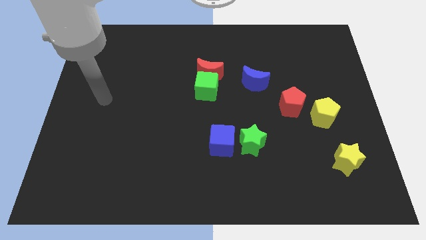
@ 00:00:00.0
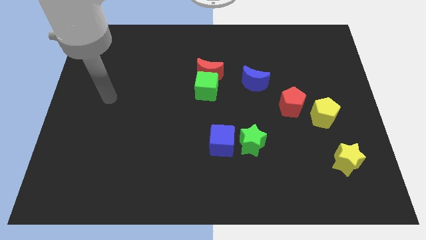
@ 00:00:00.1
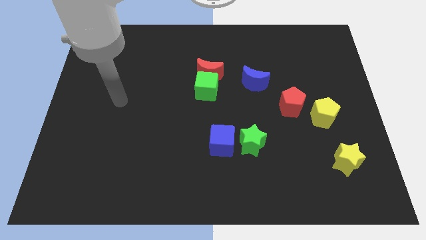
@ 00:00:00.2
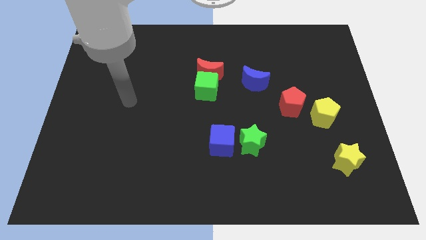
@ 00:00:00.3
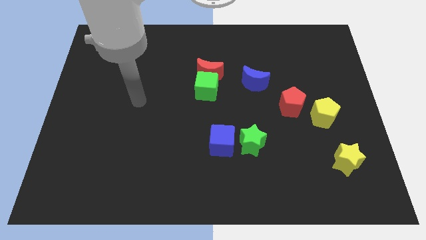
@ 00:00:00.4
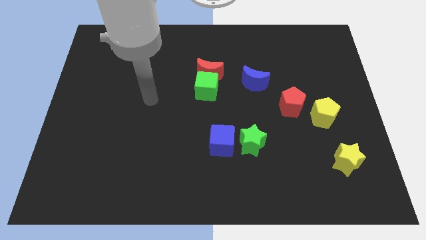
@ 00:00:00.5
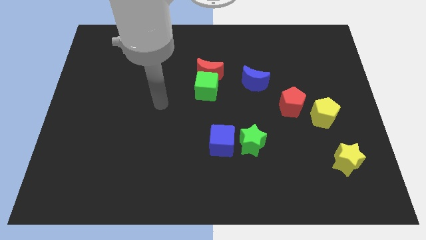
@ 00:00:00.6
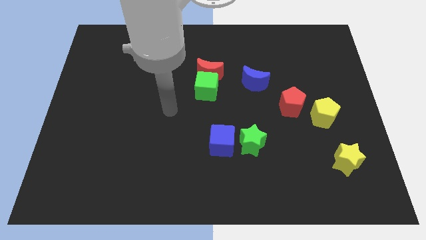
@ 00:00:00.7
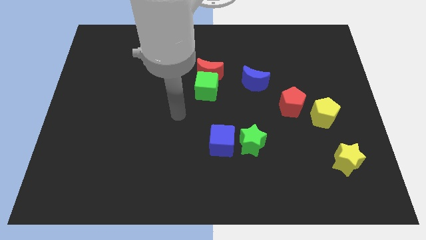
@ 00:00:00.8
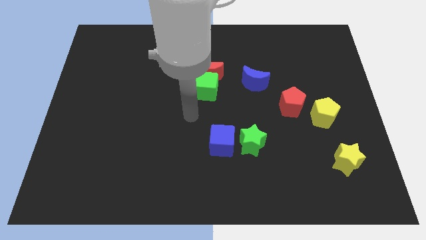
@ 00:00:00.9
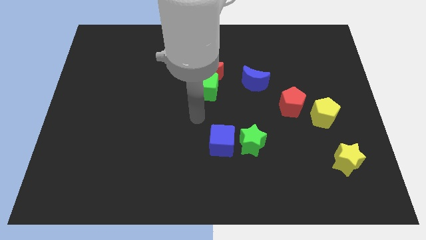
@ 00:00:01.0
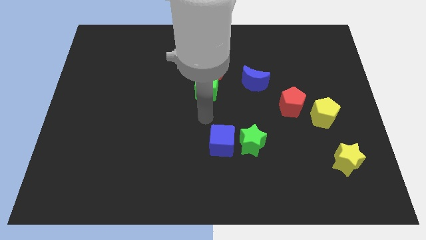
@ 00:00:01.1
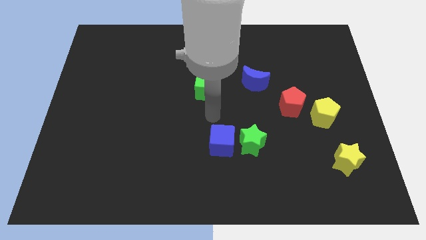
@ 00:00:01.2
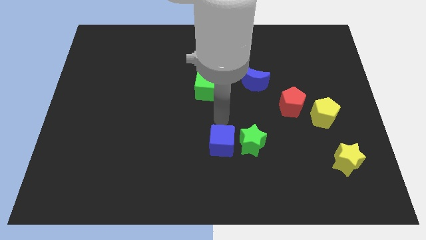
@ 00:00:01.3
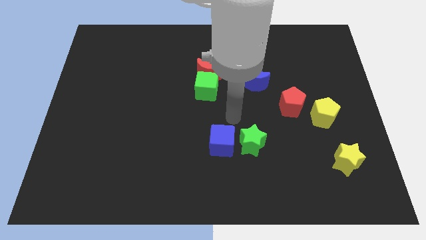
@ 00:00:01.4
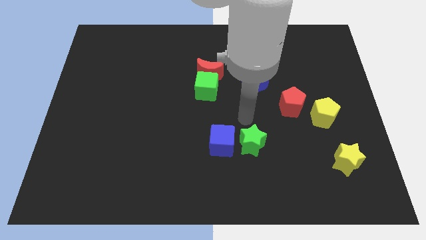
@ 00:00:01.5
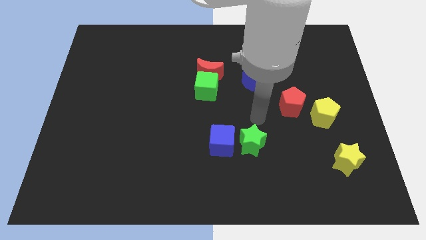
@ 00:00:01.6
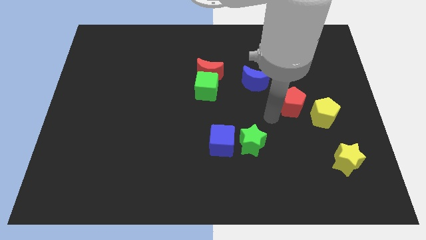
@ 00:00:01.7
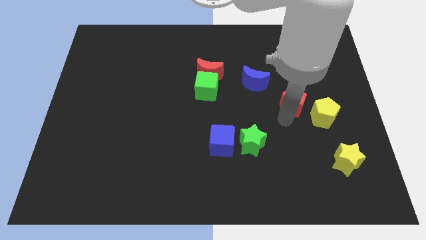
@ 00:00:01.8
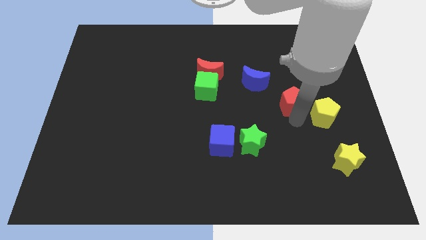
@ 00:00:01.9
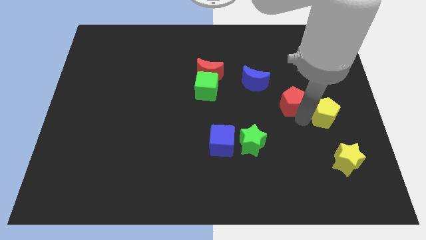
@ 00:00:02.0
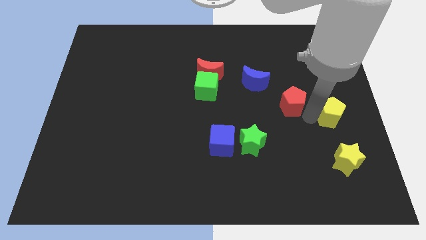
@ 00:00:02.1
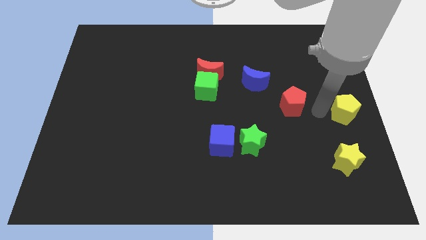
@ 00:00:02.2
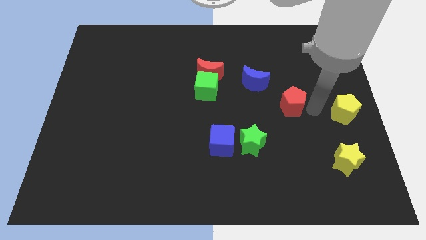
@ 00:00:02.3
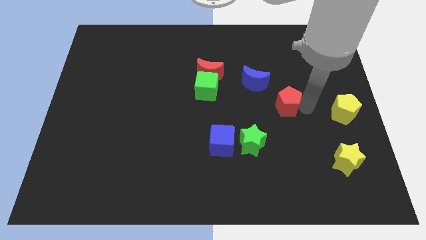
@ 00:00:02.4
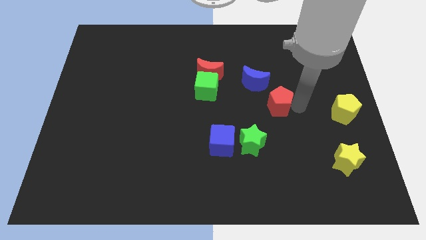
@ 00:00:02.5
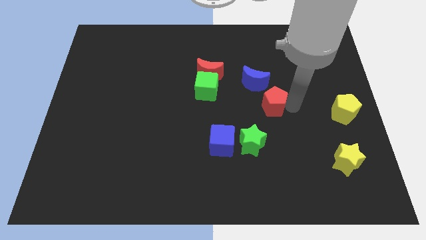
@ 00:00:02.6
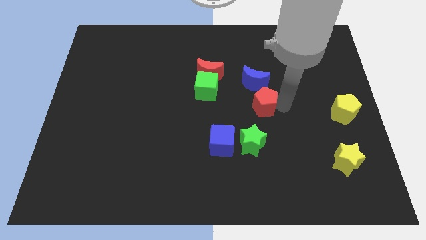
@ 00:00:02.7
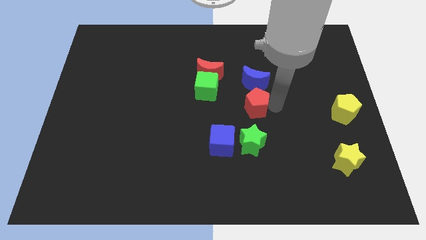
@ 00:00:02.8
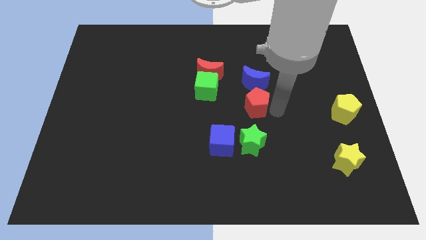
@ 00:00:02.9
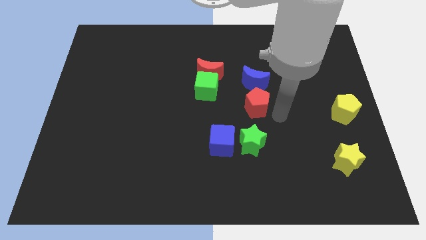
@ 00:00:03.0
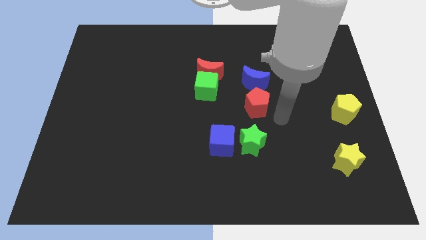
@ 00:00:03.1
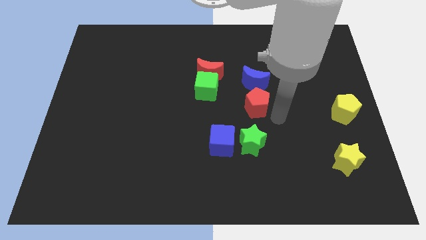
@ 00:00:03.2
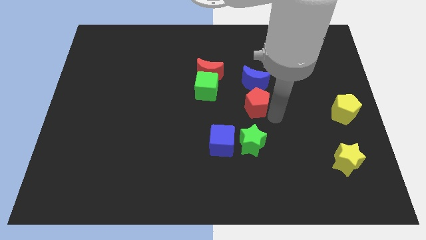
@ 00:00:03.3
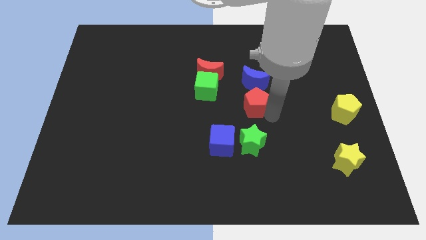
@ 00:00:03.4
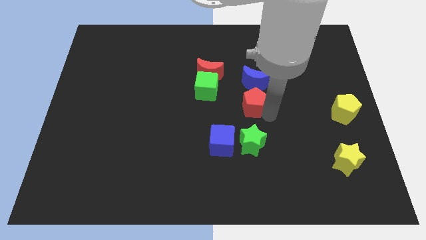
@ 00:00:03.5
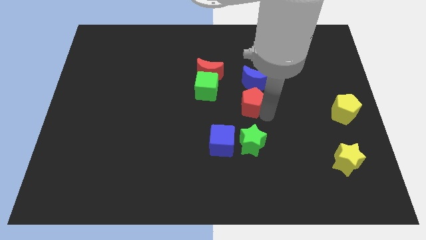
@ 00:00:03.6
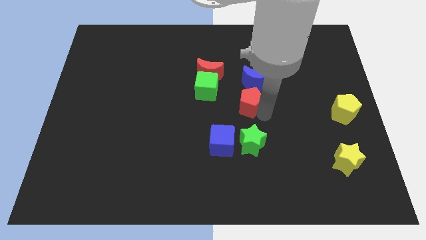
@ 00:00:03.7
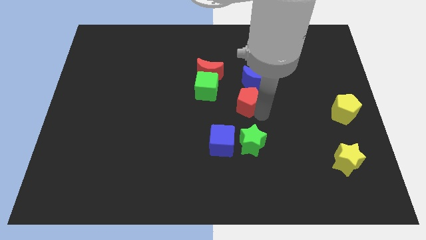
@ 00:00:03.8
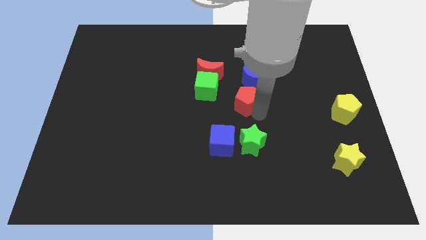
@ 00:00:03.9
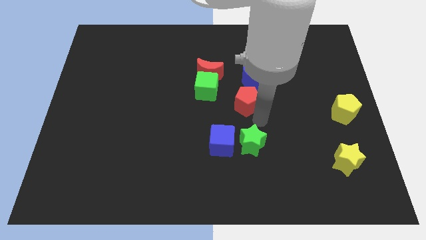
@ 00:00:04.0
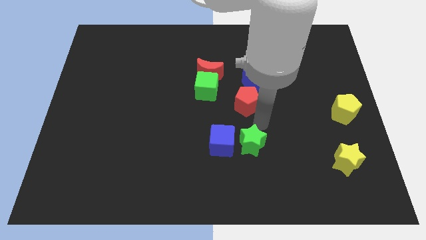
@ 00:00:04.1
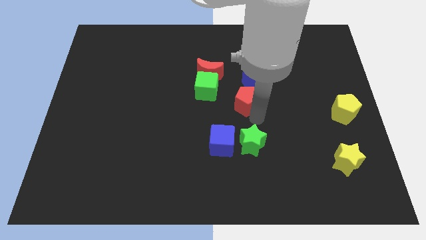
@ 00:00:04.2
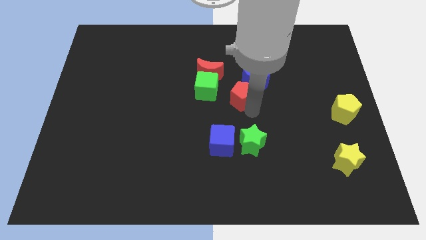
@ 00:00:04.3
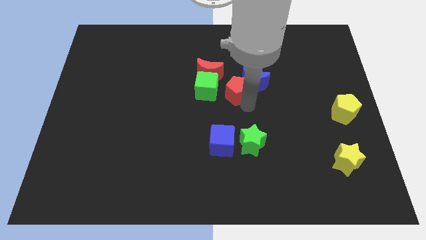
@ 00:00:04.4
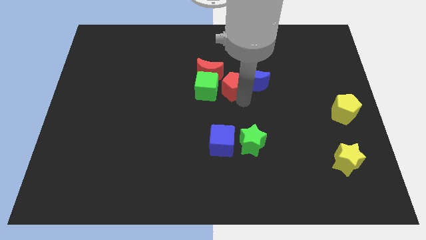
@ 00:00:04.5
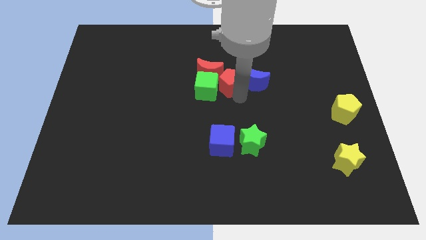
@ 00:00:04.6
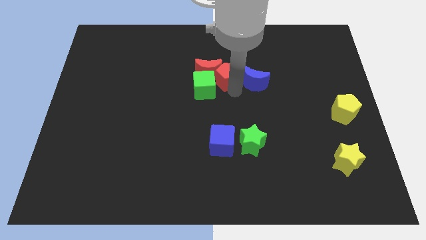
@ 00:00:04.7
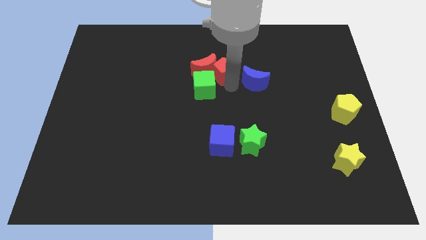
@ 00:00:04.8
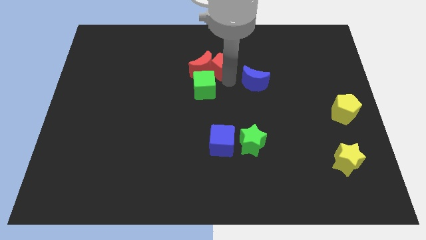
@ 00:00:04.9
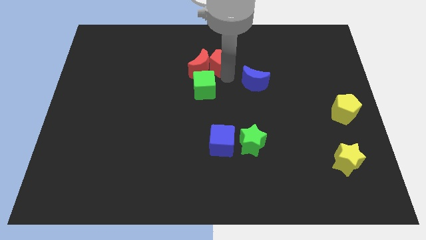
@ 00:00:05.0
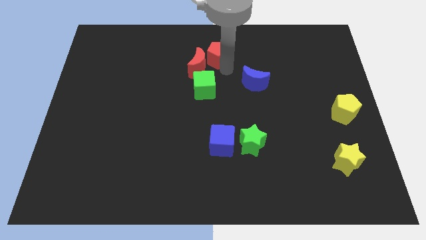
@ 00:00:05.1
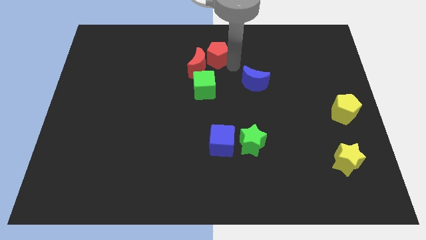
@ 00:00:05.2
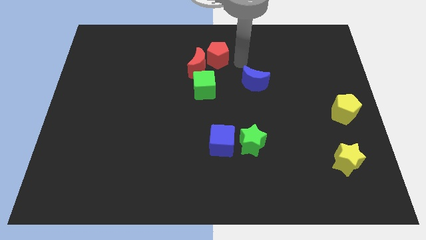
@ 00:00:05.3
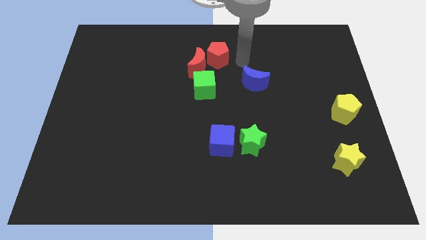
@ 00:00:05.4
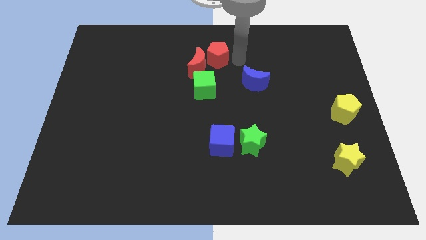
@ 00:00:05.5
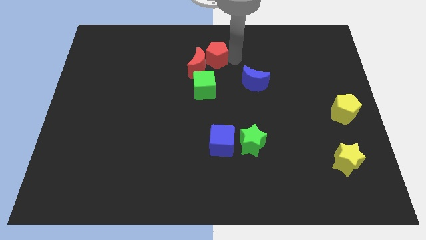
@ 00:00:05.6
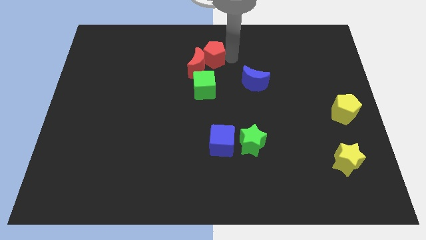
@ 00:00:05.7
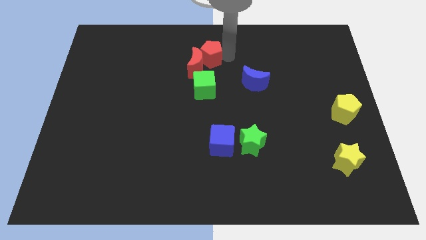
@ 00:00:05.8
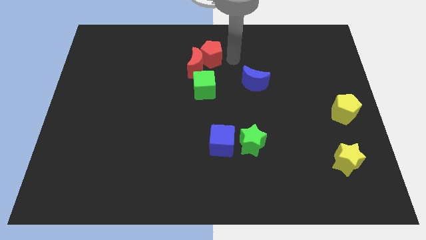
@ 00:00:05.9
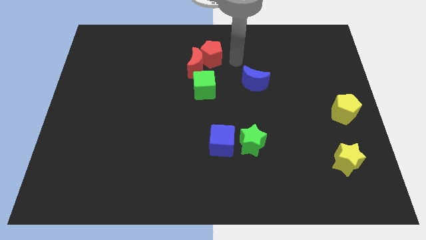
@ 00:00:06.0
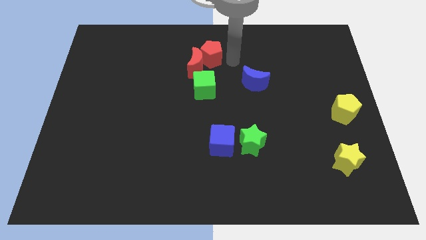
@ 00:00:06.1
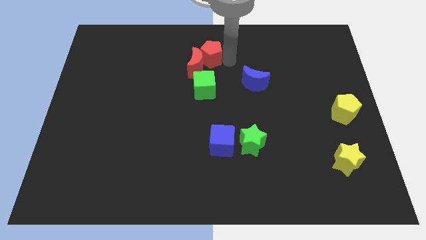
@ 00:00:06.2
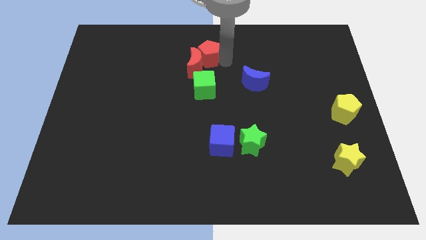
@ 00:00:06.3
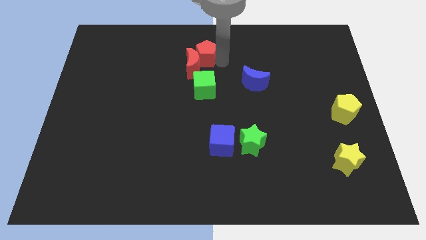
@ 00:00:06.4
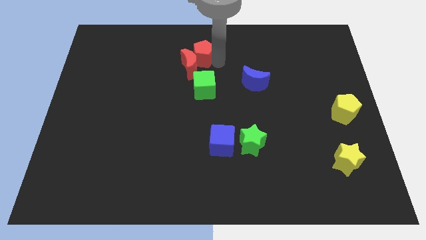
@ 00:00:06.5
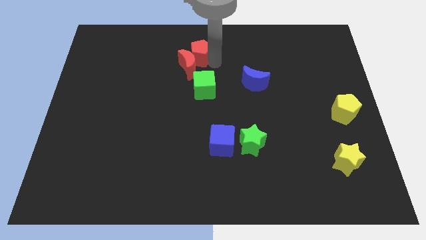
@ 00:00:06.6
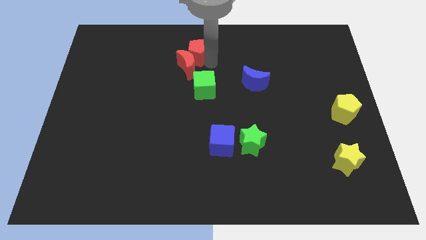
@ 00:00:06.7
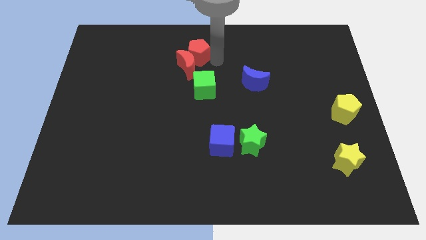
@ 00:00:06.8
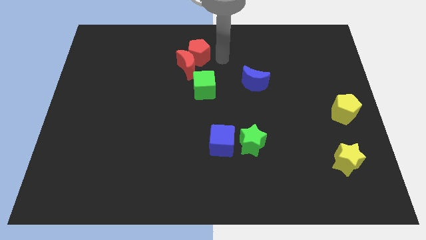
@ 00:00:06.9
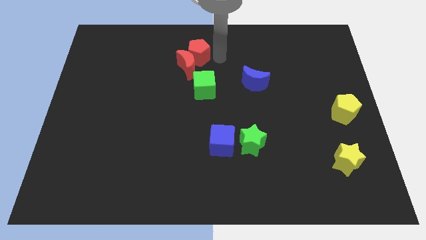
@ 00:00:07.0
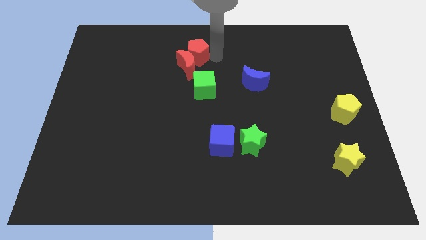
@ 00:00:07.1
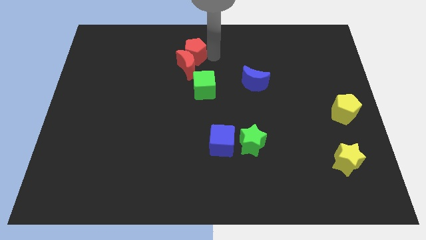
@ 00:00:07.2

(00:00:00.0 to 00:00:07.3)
slide the red pentagon to the top left side of the red moon
